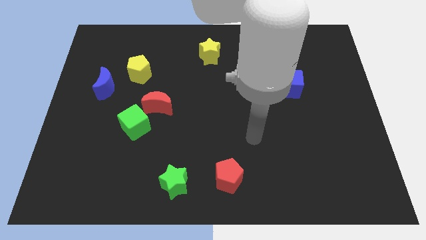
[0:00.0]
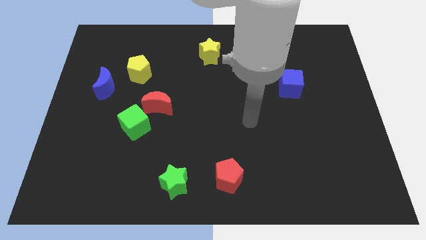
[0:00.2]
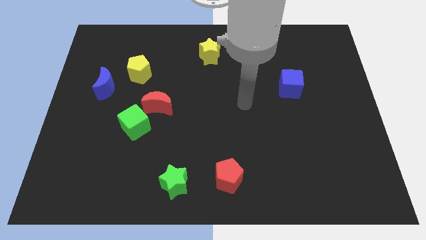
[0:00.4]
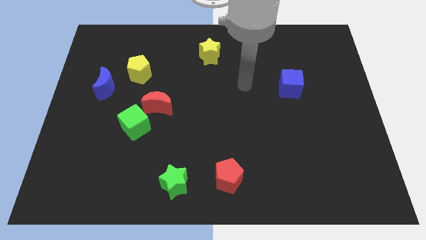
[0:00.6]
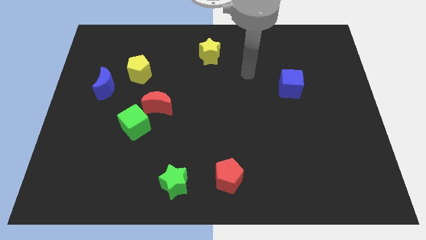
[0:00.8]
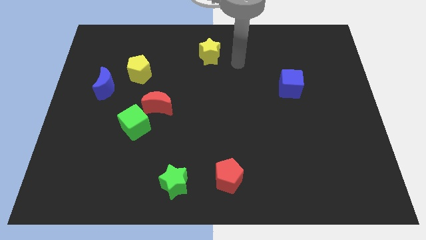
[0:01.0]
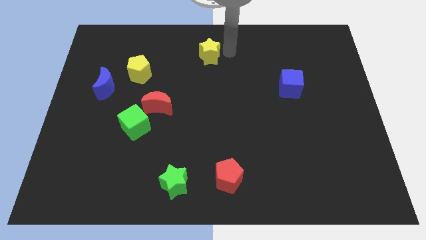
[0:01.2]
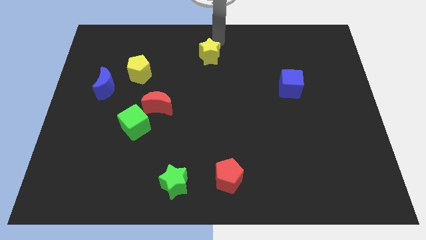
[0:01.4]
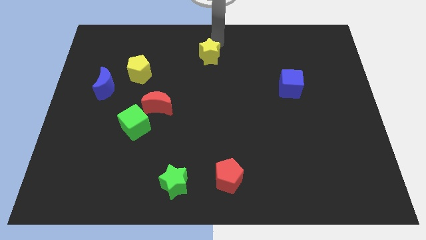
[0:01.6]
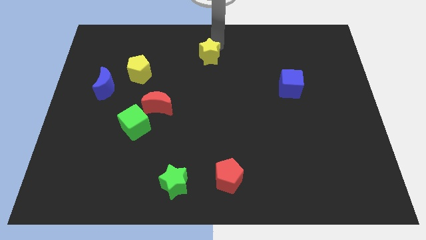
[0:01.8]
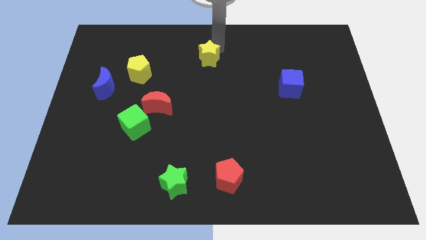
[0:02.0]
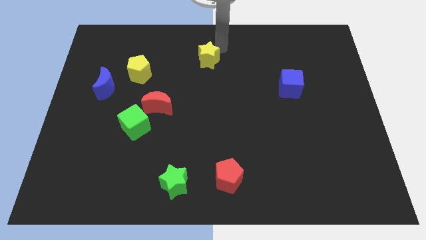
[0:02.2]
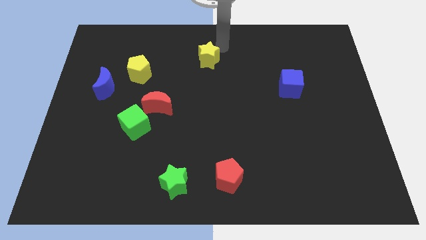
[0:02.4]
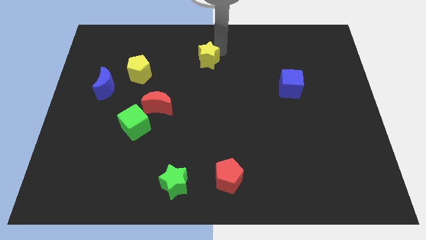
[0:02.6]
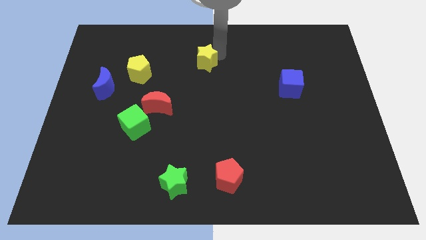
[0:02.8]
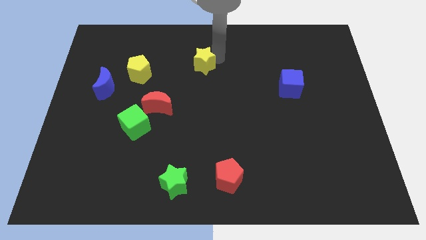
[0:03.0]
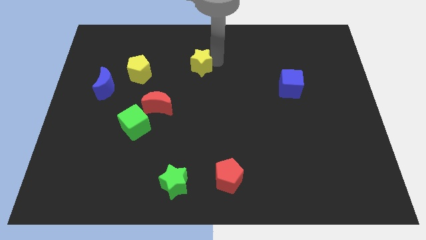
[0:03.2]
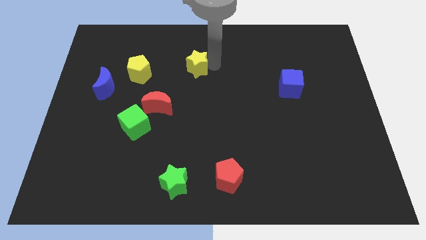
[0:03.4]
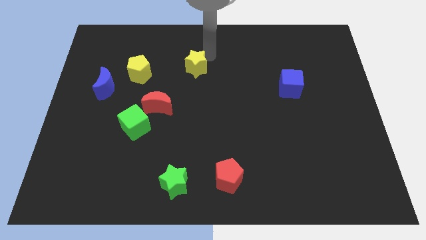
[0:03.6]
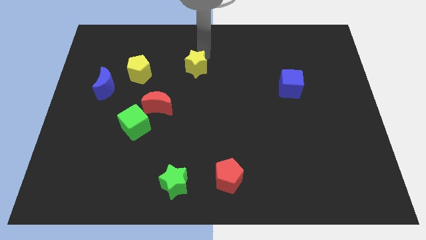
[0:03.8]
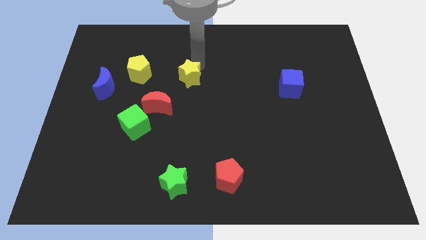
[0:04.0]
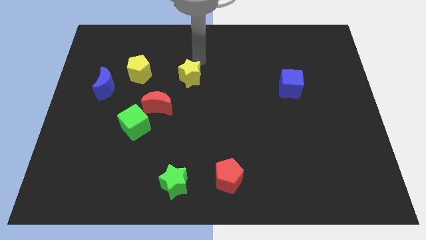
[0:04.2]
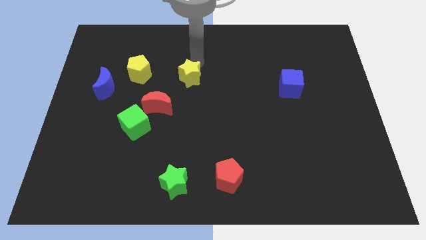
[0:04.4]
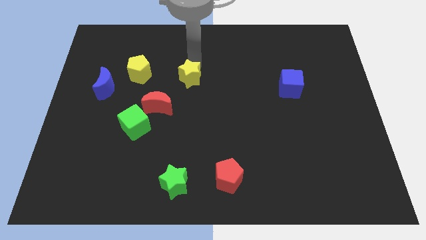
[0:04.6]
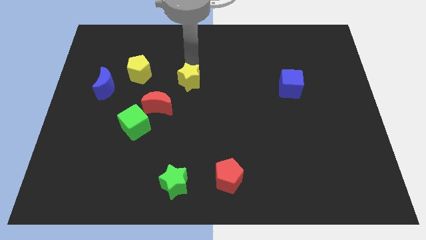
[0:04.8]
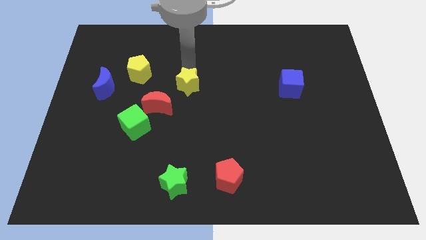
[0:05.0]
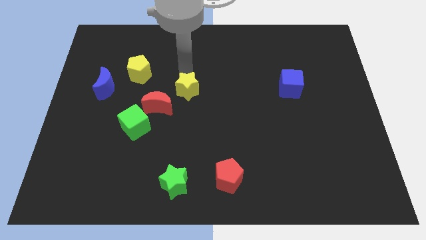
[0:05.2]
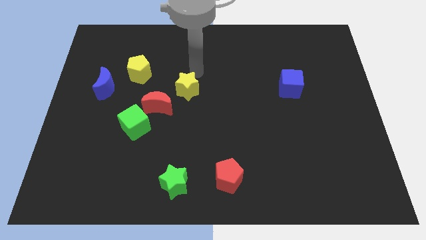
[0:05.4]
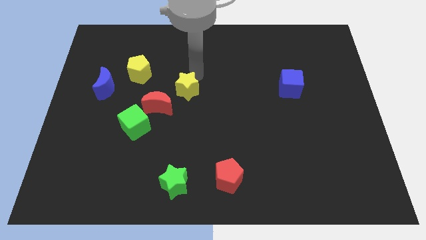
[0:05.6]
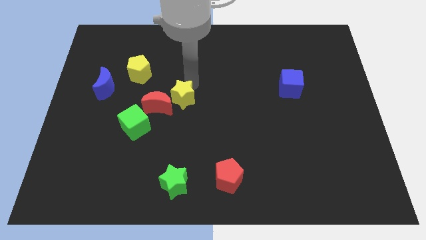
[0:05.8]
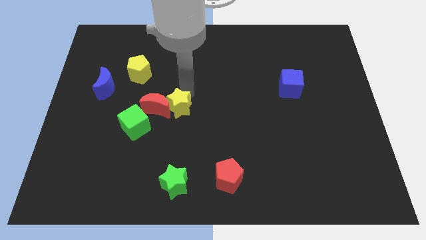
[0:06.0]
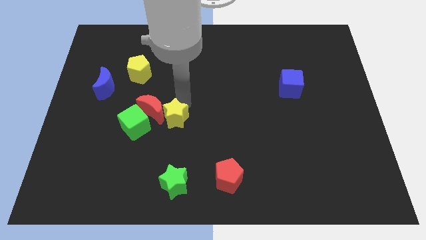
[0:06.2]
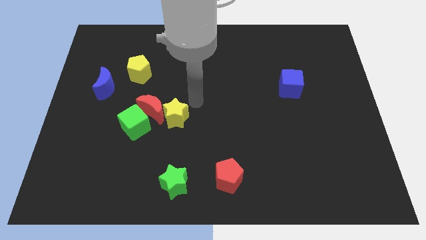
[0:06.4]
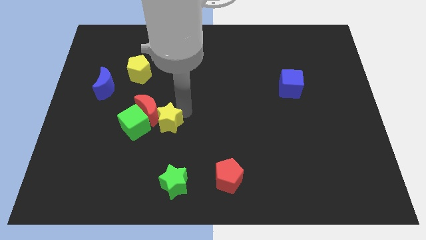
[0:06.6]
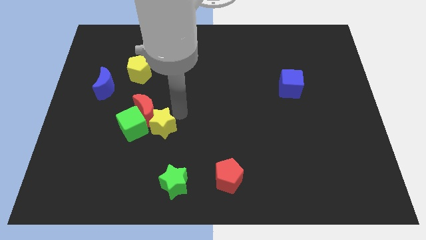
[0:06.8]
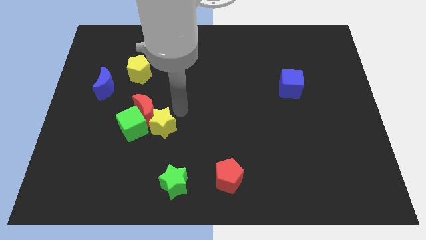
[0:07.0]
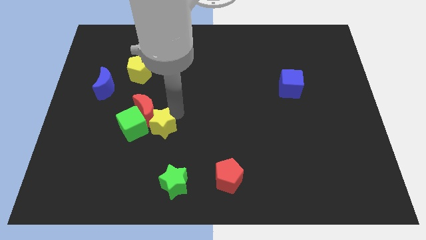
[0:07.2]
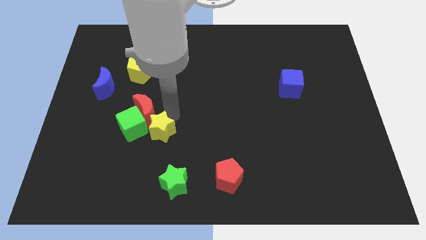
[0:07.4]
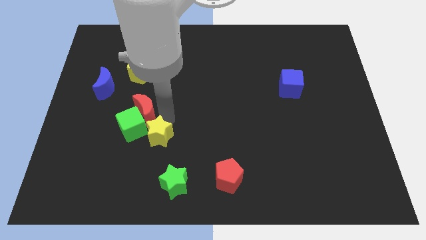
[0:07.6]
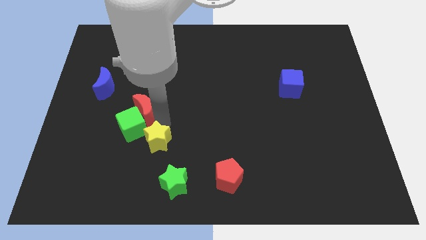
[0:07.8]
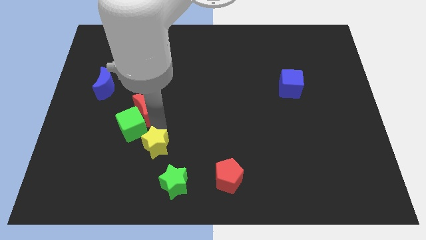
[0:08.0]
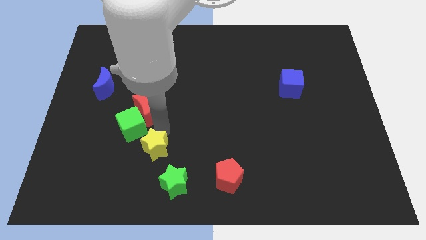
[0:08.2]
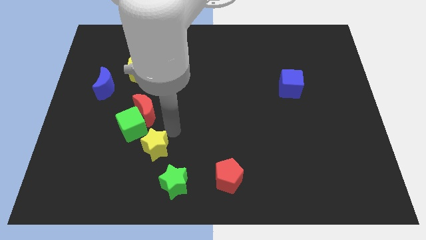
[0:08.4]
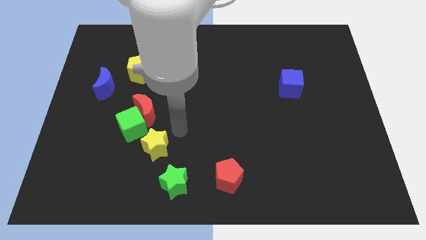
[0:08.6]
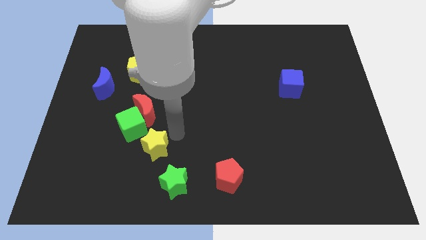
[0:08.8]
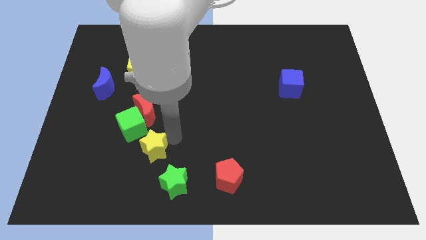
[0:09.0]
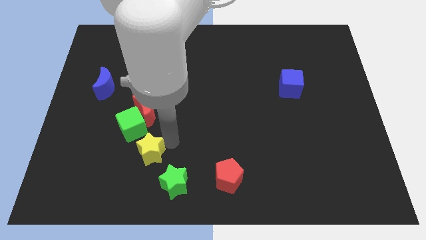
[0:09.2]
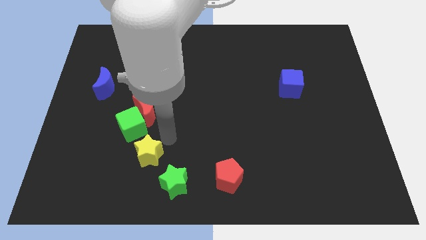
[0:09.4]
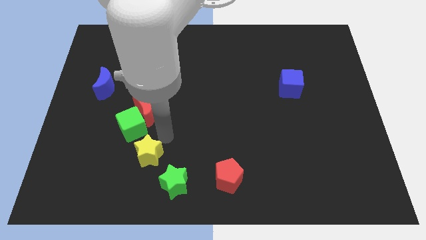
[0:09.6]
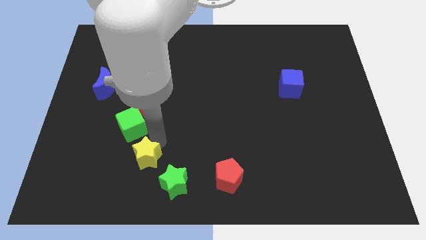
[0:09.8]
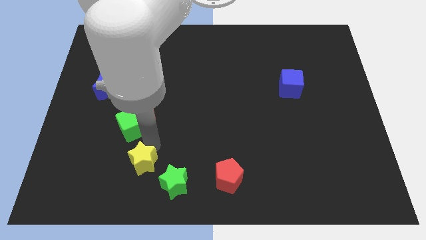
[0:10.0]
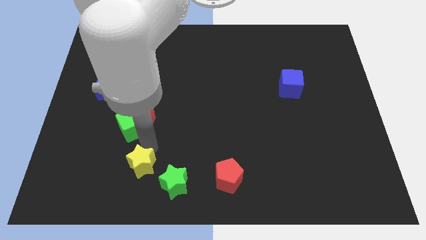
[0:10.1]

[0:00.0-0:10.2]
push the yellow star left of the green star

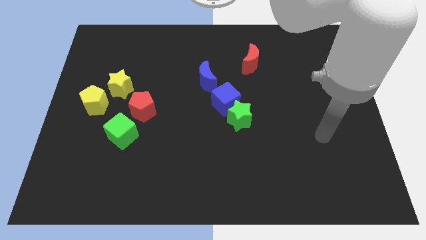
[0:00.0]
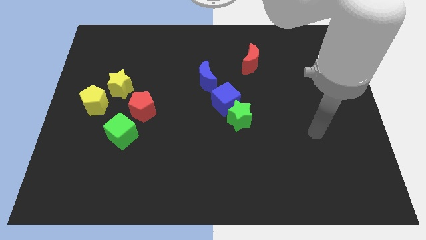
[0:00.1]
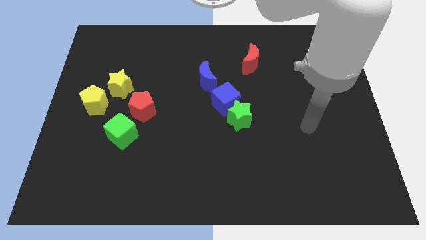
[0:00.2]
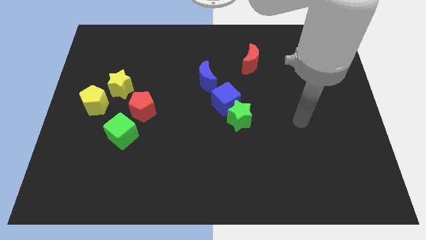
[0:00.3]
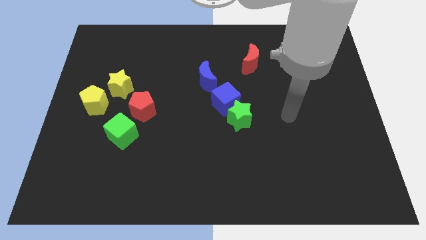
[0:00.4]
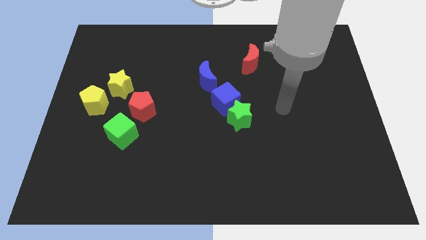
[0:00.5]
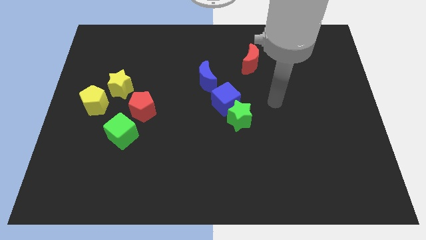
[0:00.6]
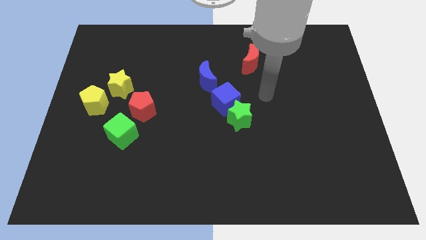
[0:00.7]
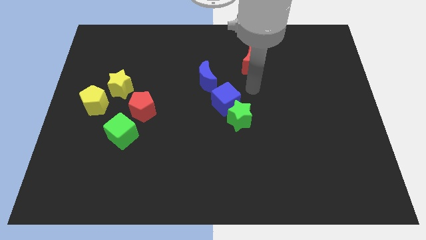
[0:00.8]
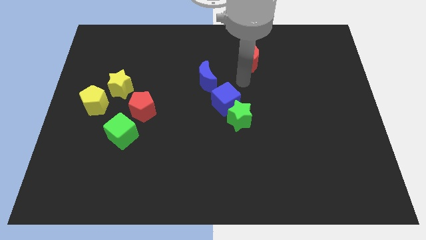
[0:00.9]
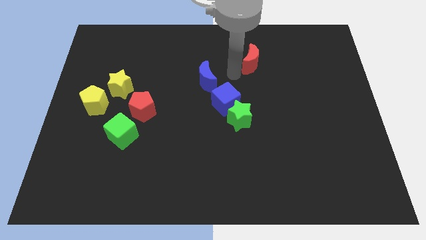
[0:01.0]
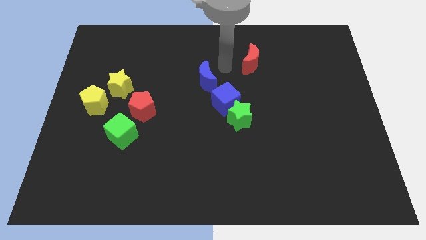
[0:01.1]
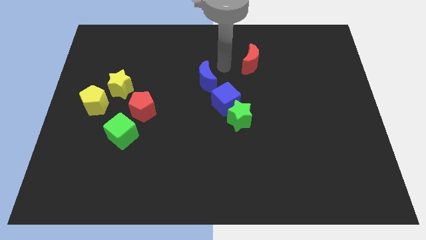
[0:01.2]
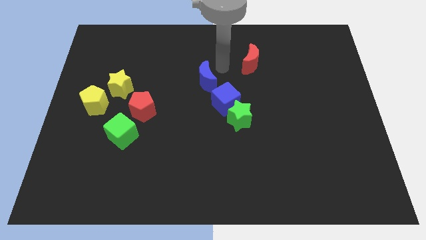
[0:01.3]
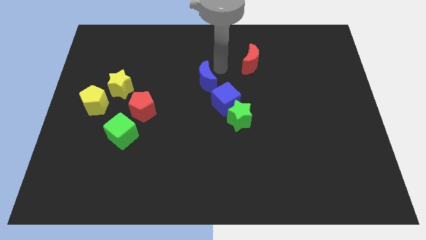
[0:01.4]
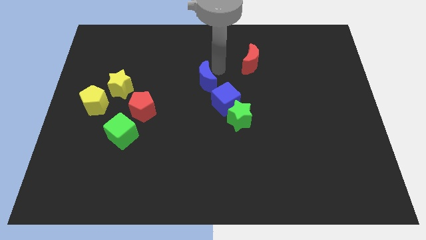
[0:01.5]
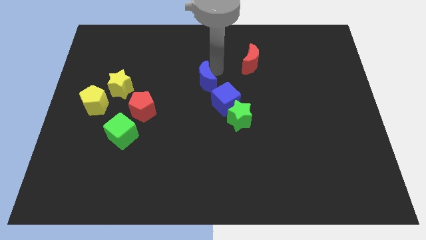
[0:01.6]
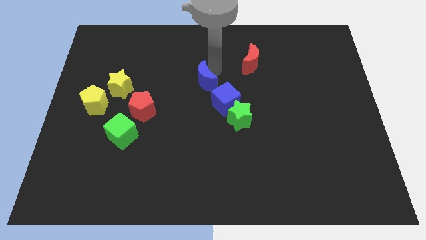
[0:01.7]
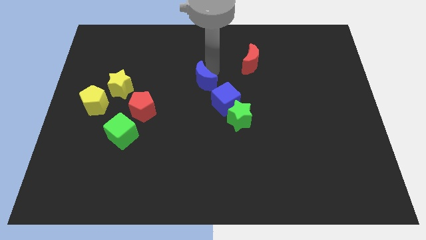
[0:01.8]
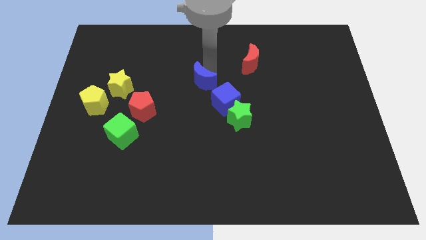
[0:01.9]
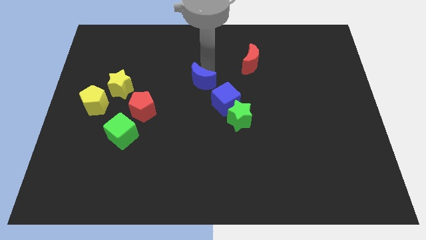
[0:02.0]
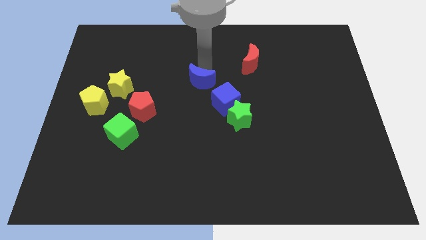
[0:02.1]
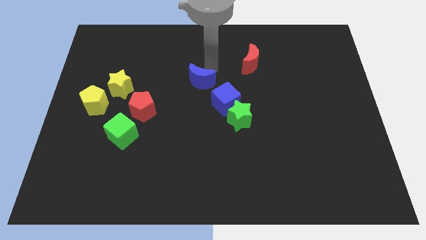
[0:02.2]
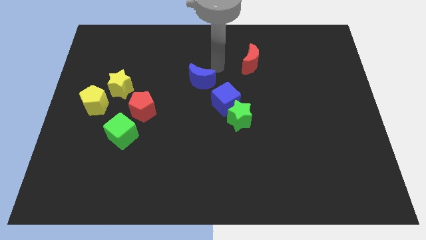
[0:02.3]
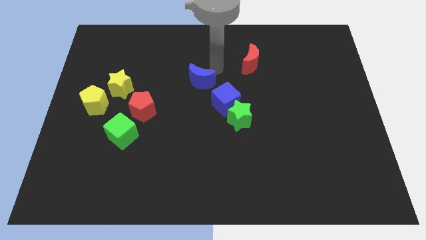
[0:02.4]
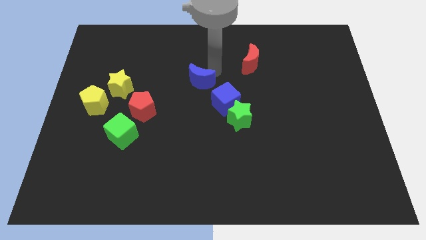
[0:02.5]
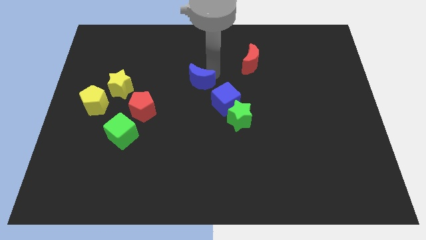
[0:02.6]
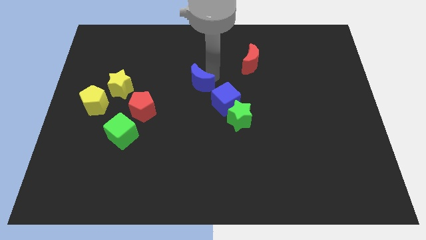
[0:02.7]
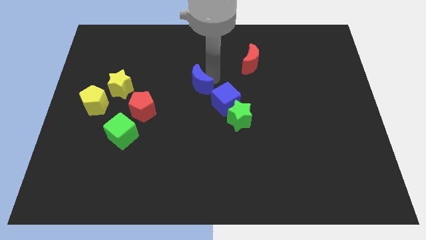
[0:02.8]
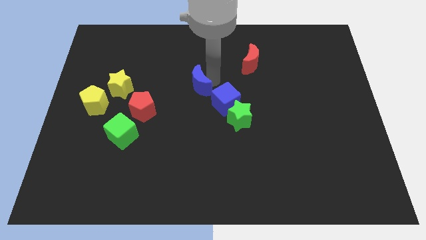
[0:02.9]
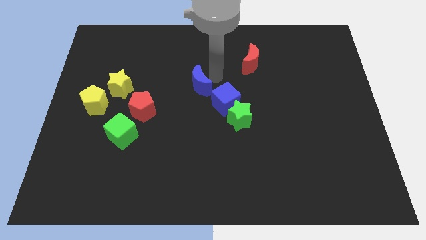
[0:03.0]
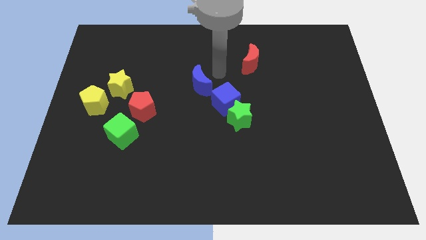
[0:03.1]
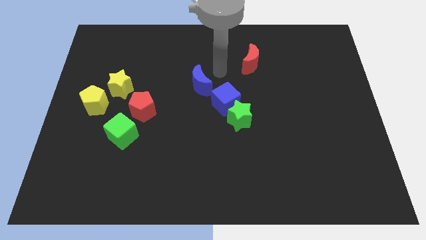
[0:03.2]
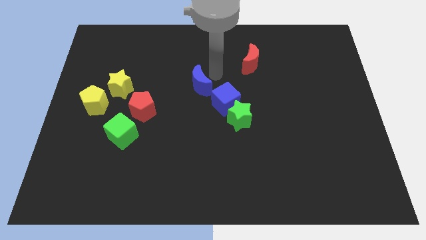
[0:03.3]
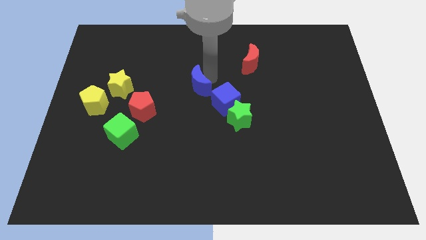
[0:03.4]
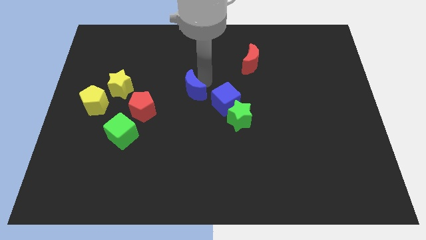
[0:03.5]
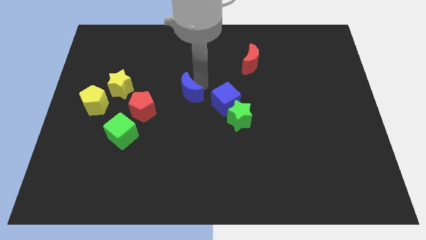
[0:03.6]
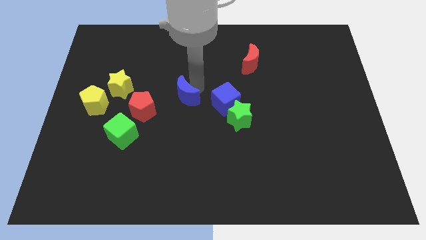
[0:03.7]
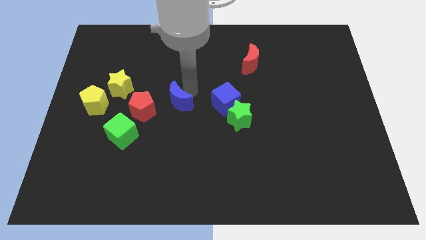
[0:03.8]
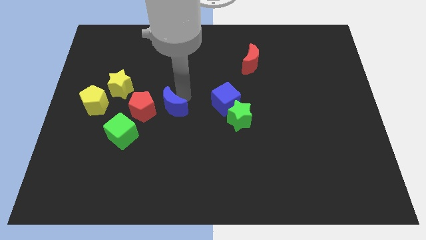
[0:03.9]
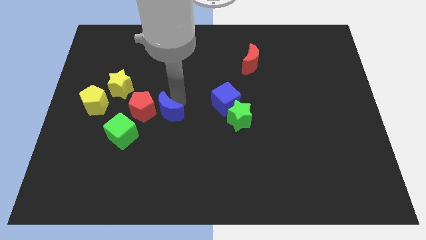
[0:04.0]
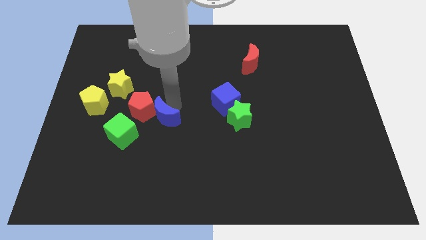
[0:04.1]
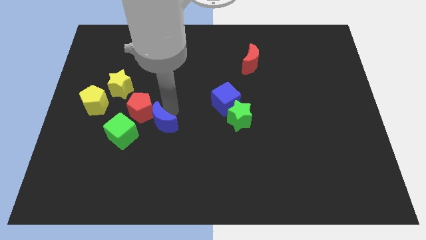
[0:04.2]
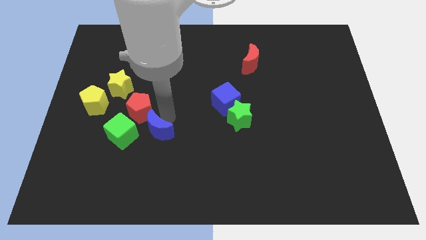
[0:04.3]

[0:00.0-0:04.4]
put the blue moon to the bottom side of the red pentagon
